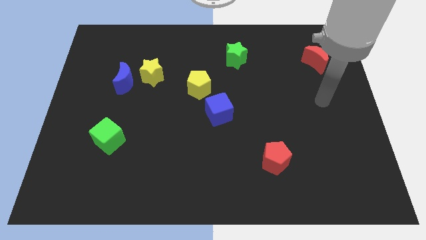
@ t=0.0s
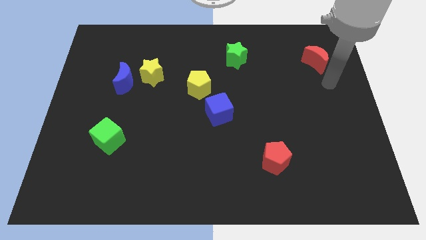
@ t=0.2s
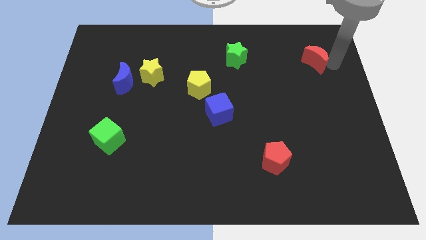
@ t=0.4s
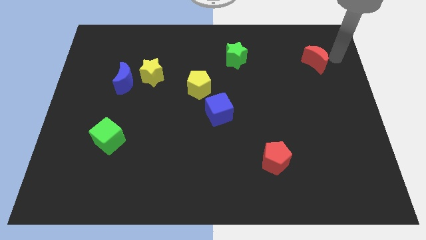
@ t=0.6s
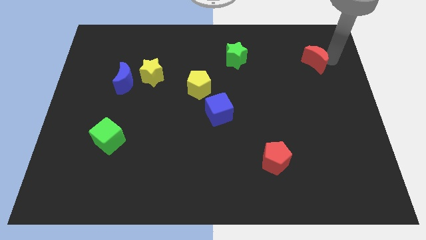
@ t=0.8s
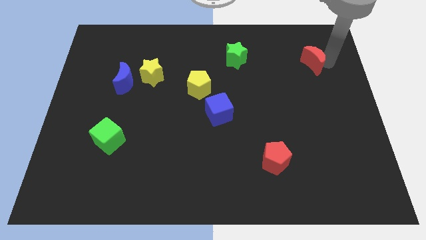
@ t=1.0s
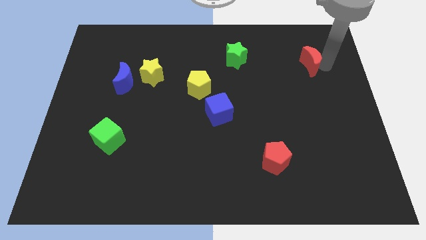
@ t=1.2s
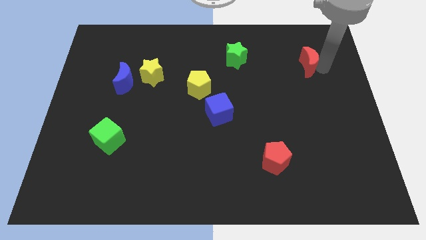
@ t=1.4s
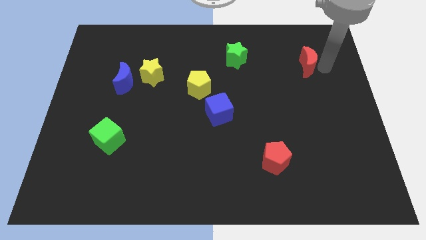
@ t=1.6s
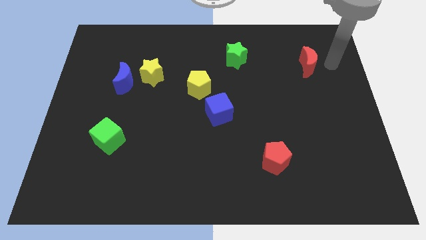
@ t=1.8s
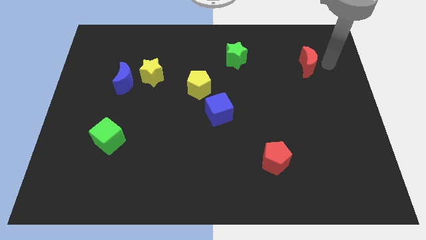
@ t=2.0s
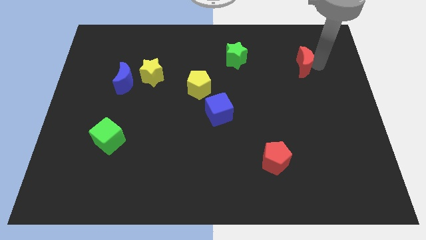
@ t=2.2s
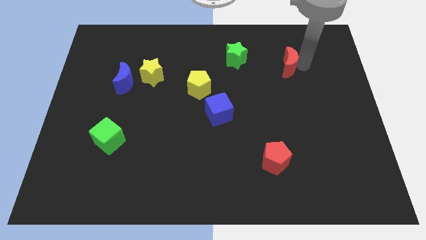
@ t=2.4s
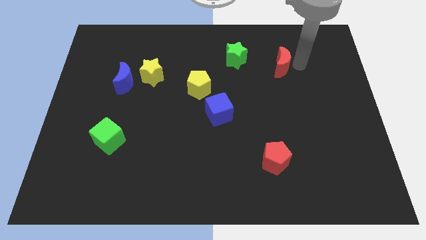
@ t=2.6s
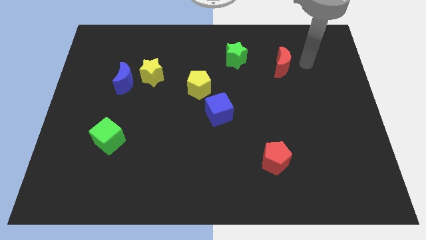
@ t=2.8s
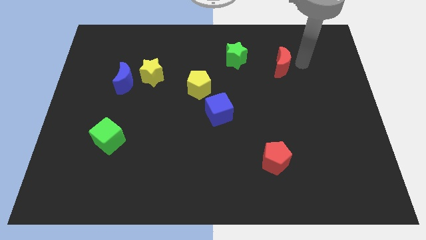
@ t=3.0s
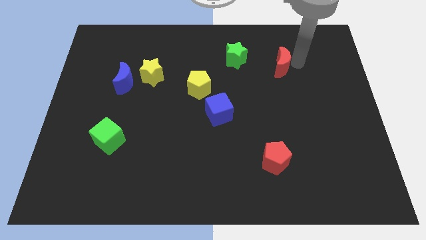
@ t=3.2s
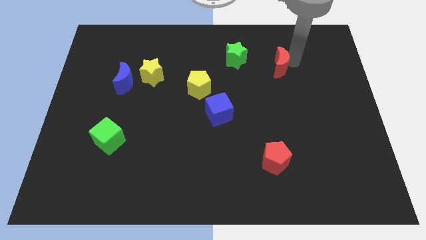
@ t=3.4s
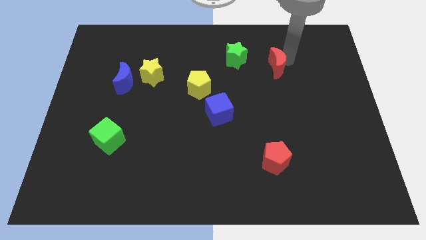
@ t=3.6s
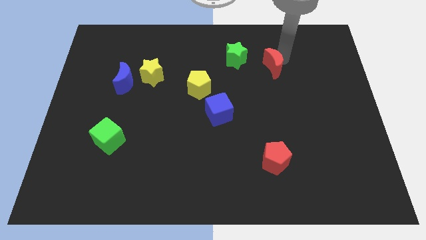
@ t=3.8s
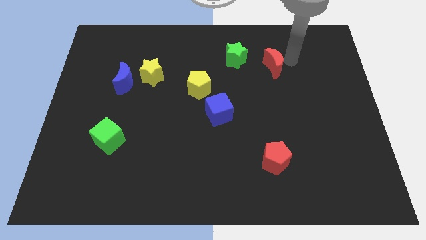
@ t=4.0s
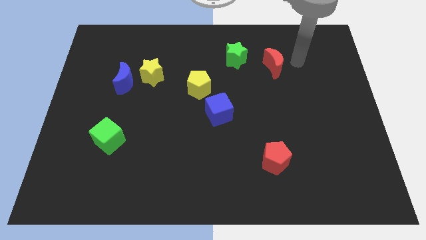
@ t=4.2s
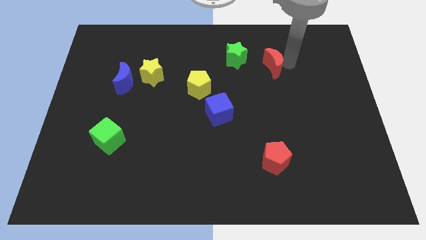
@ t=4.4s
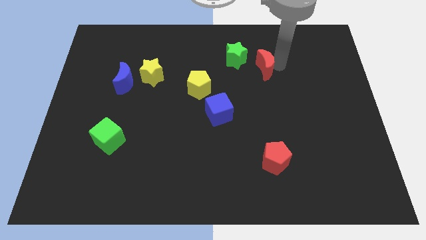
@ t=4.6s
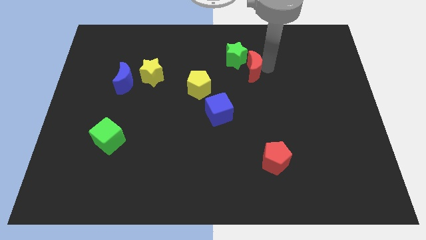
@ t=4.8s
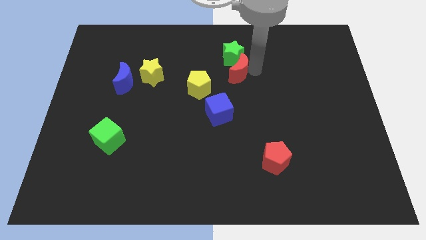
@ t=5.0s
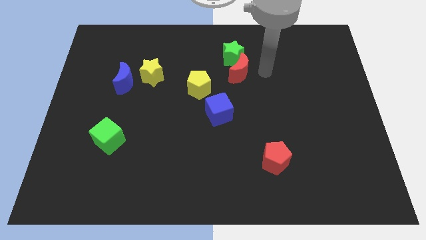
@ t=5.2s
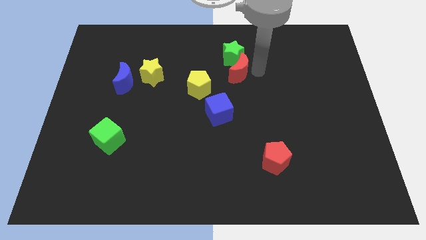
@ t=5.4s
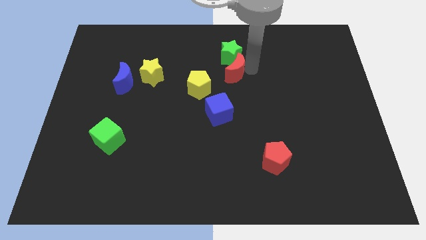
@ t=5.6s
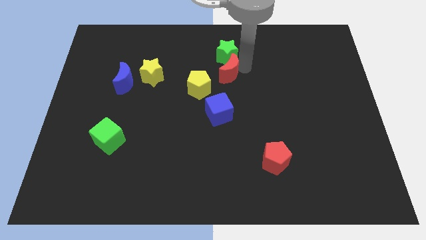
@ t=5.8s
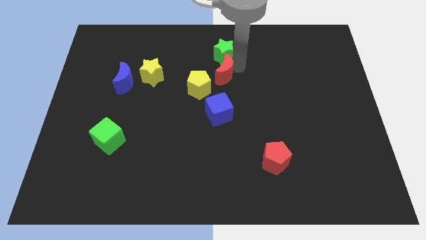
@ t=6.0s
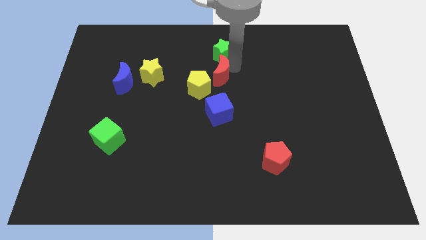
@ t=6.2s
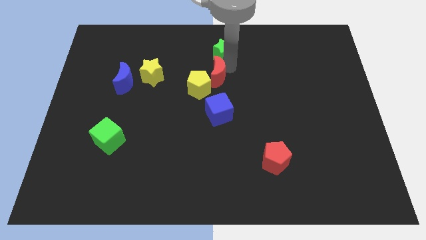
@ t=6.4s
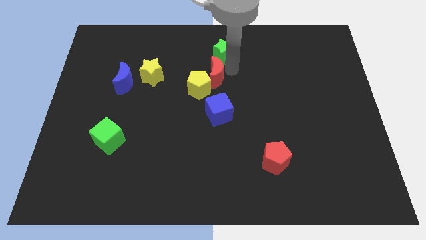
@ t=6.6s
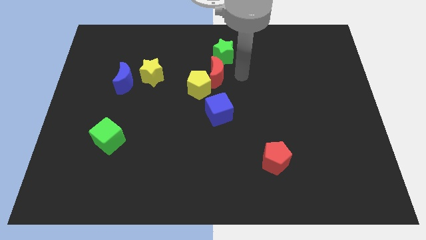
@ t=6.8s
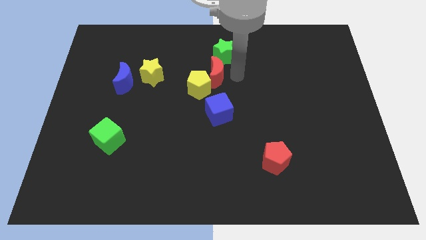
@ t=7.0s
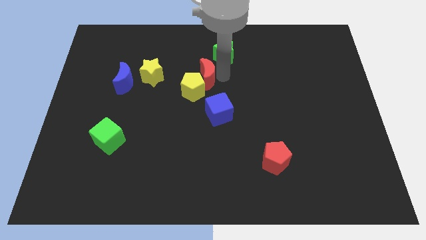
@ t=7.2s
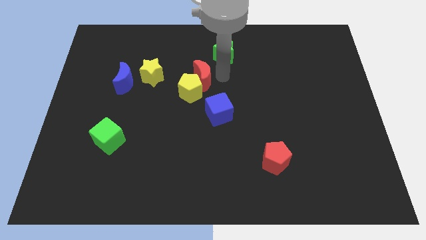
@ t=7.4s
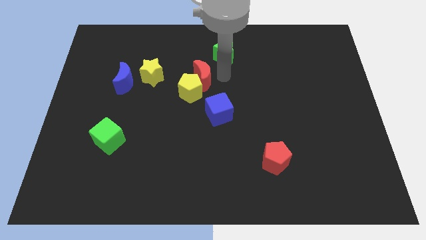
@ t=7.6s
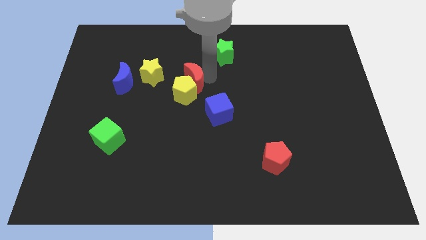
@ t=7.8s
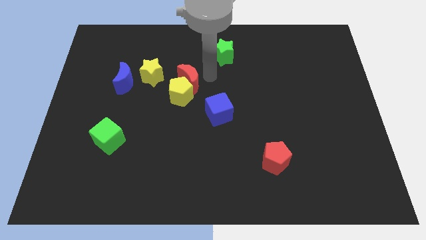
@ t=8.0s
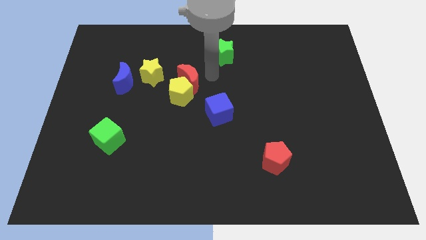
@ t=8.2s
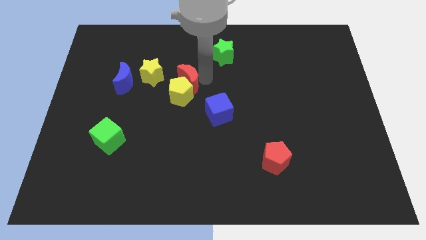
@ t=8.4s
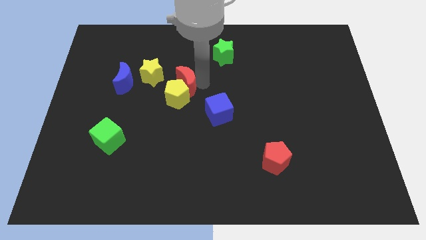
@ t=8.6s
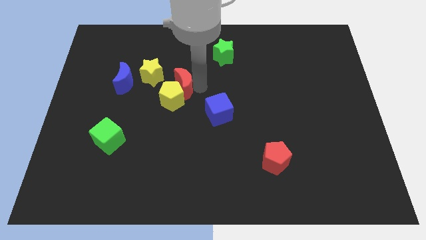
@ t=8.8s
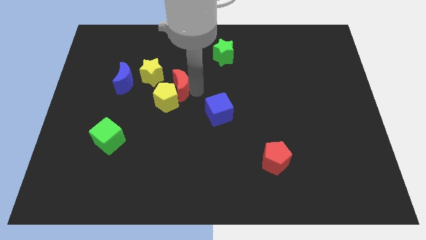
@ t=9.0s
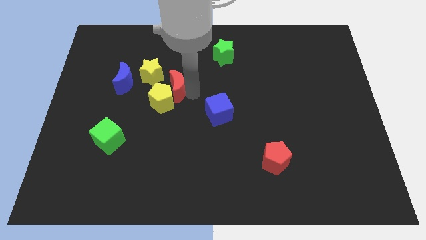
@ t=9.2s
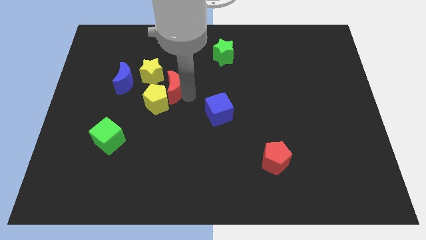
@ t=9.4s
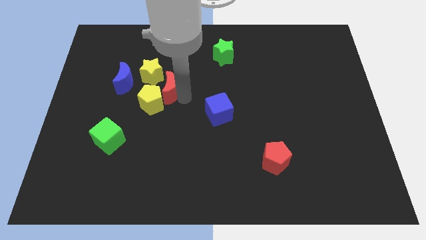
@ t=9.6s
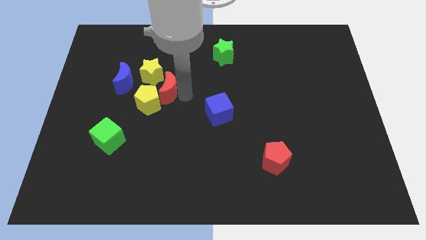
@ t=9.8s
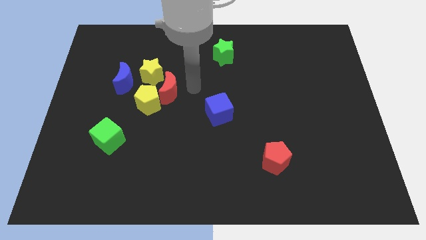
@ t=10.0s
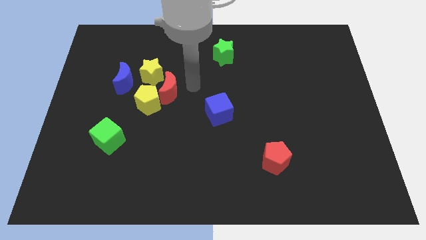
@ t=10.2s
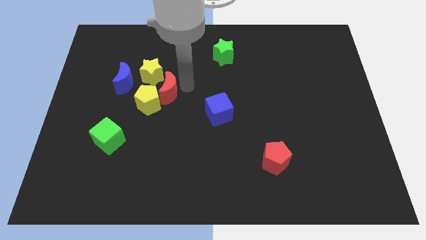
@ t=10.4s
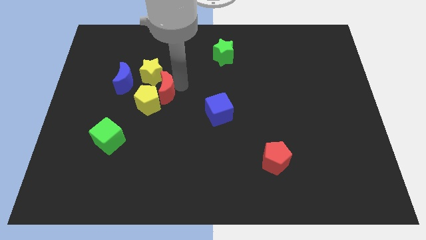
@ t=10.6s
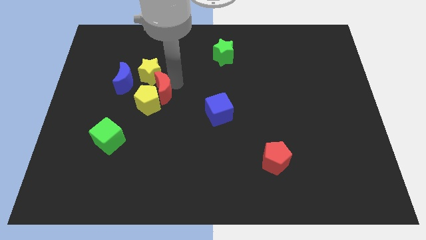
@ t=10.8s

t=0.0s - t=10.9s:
push the red moon diagonally down and to the right of the blue moon

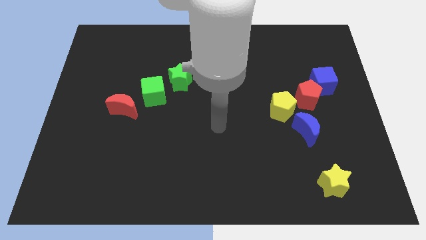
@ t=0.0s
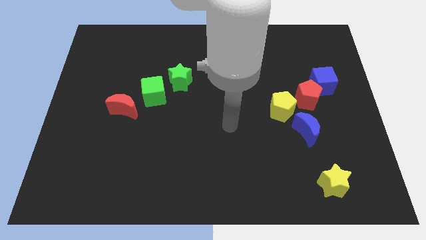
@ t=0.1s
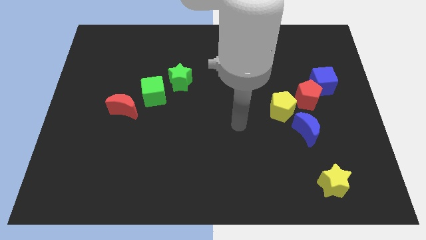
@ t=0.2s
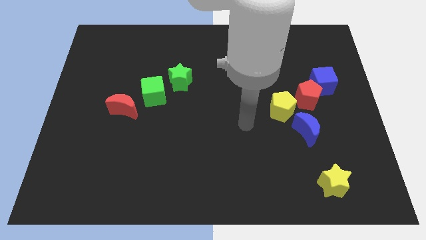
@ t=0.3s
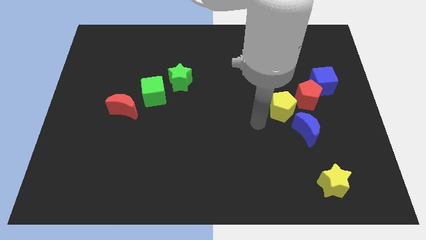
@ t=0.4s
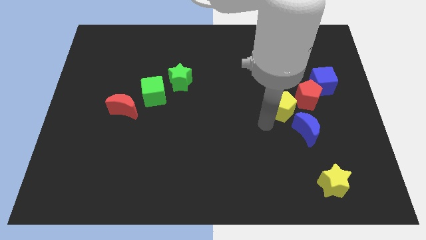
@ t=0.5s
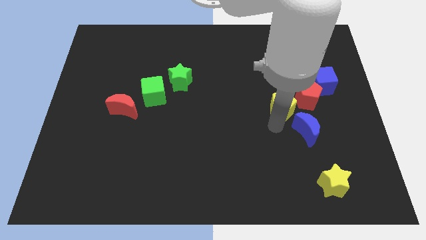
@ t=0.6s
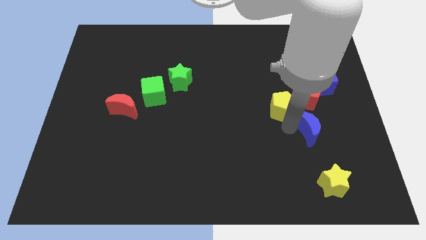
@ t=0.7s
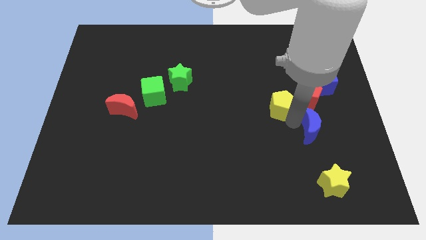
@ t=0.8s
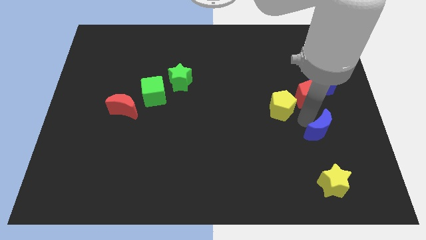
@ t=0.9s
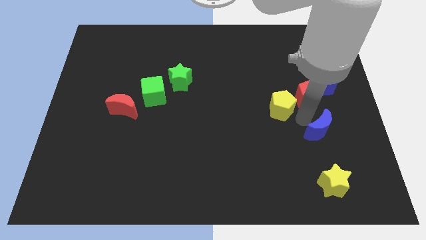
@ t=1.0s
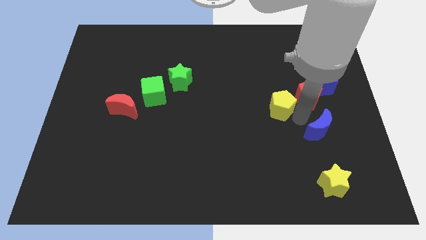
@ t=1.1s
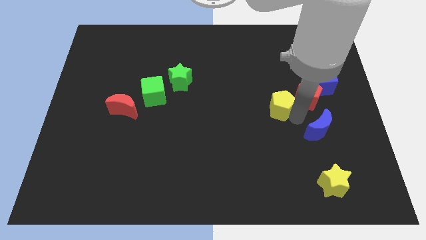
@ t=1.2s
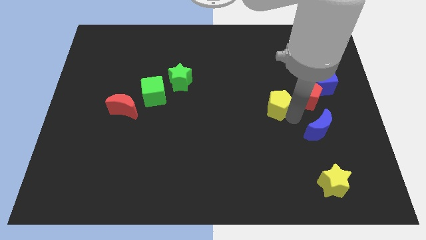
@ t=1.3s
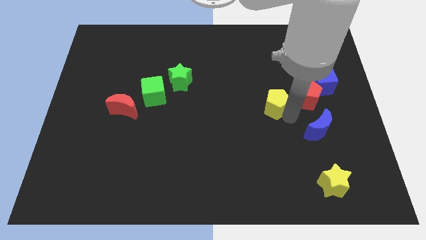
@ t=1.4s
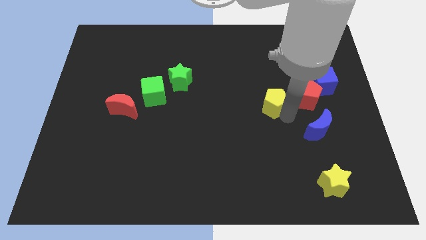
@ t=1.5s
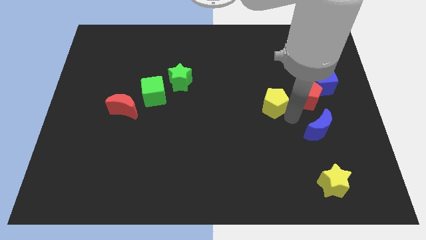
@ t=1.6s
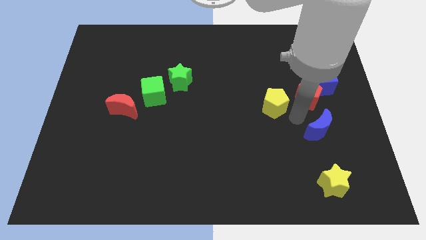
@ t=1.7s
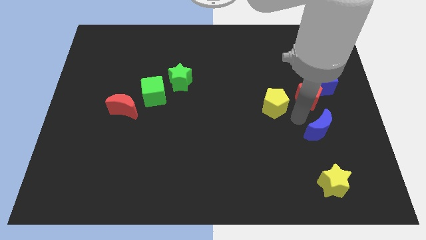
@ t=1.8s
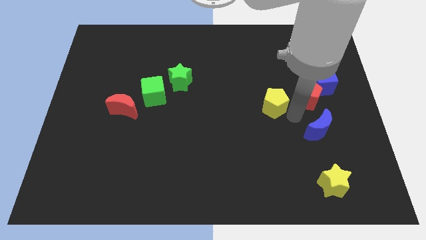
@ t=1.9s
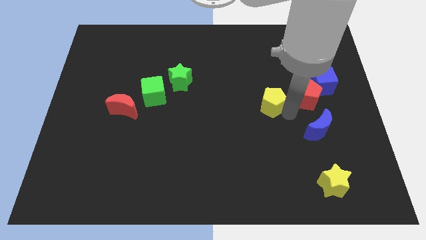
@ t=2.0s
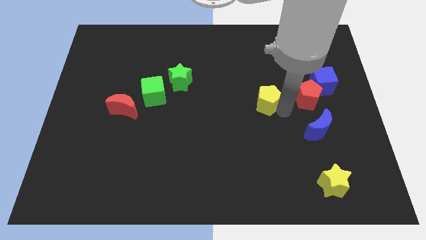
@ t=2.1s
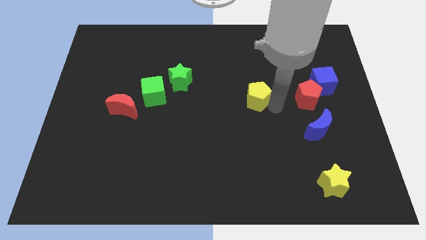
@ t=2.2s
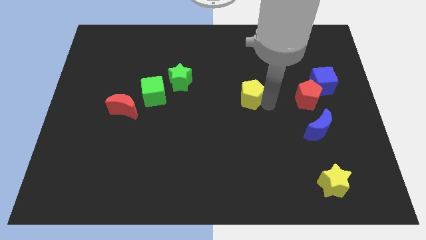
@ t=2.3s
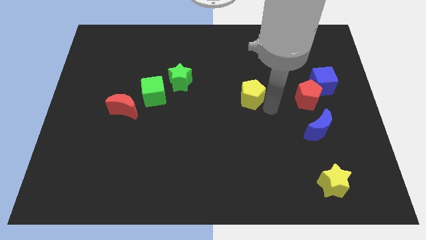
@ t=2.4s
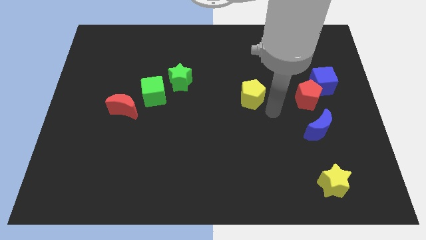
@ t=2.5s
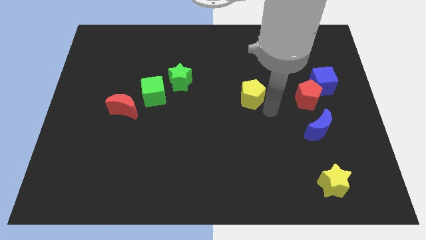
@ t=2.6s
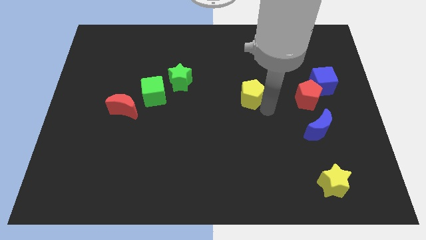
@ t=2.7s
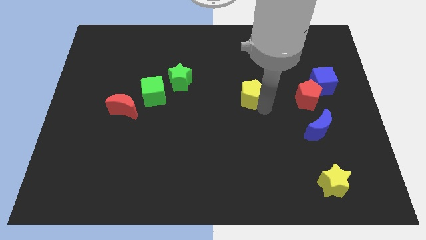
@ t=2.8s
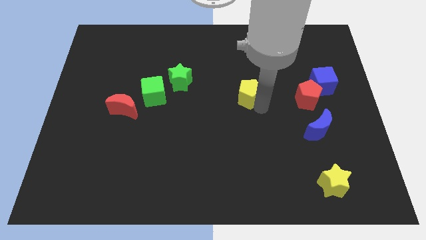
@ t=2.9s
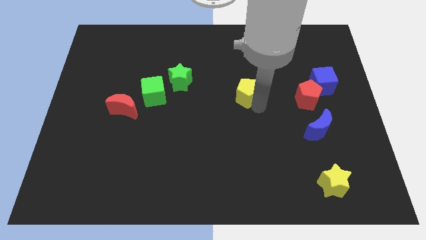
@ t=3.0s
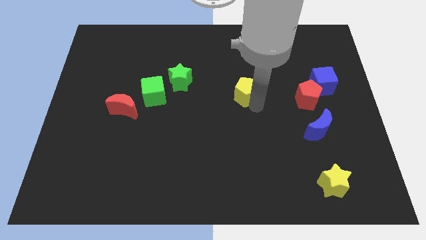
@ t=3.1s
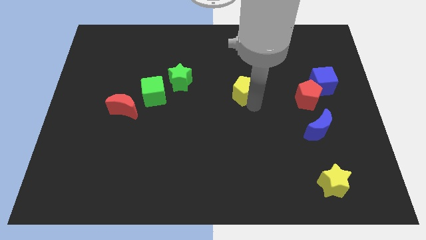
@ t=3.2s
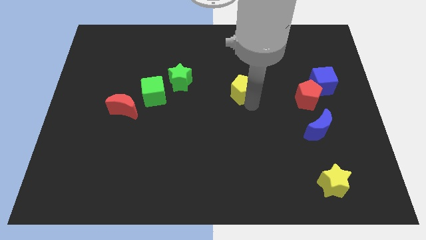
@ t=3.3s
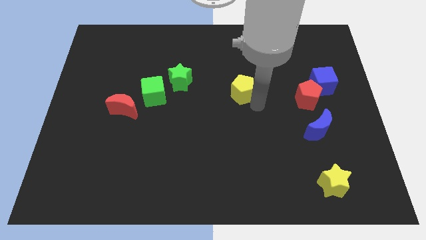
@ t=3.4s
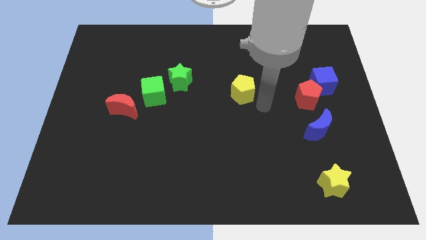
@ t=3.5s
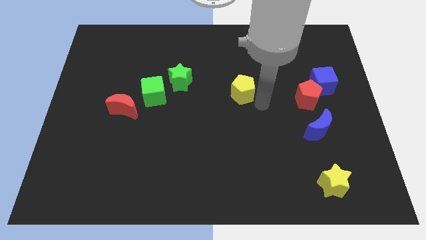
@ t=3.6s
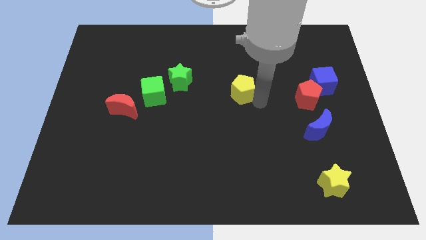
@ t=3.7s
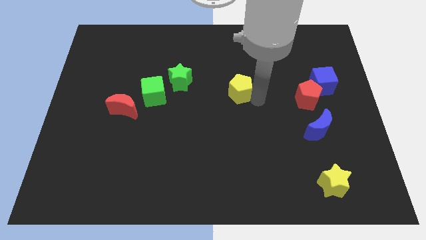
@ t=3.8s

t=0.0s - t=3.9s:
move the yellow pentagon to the right of the green star
